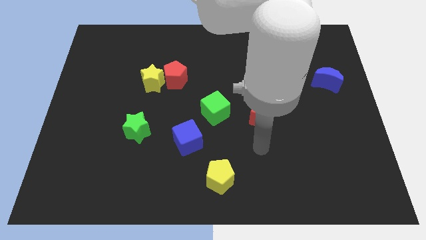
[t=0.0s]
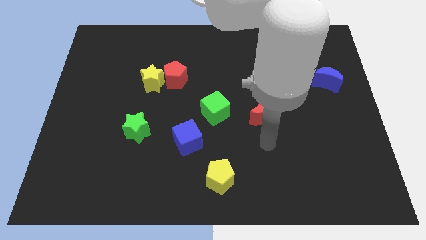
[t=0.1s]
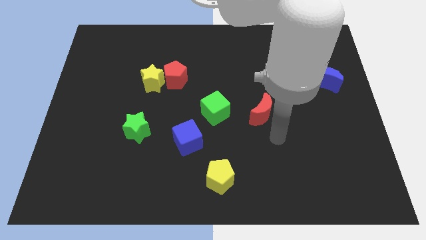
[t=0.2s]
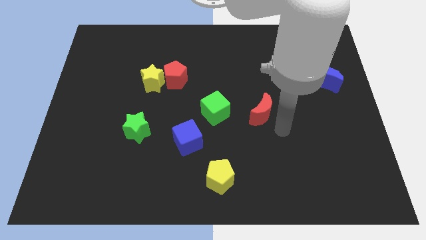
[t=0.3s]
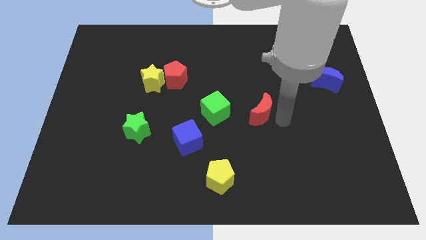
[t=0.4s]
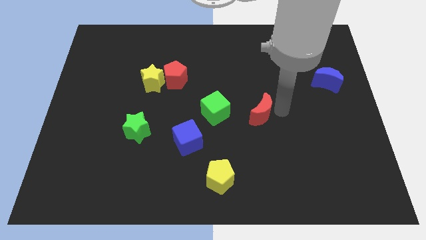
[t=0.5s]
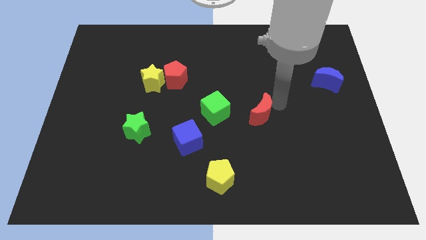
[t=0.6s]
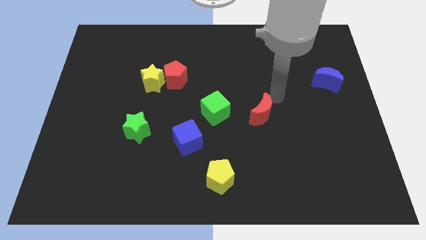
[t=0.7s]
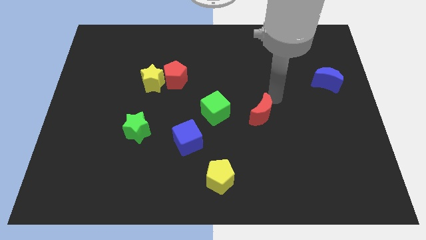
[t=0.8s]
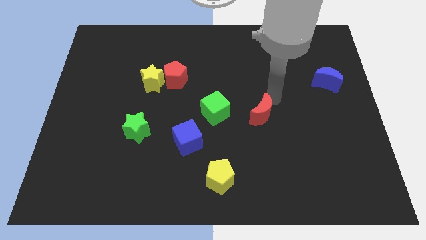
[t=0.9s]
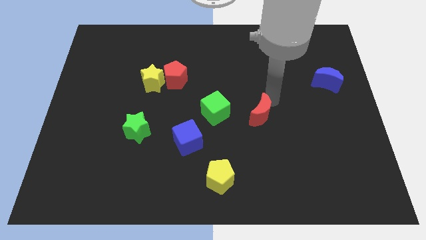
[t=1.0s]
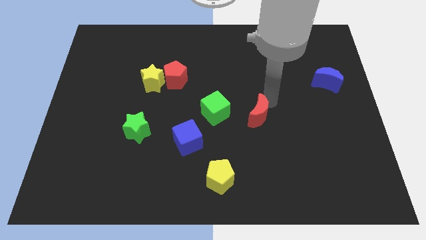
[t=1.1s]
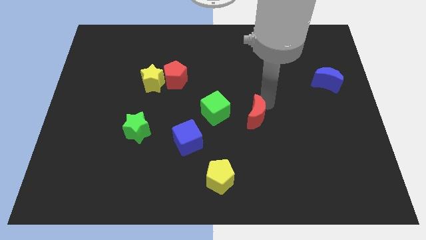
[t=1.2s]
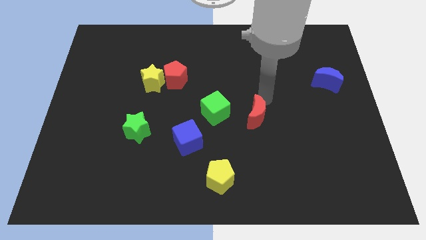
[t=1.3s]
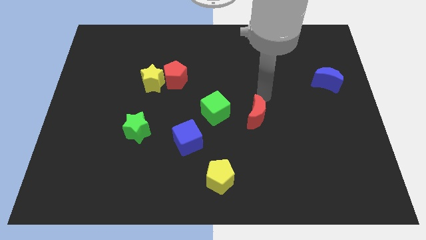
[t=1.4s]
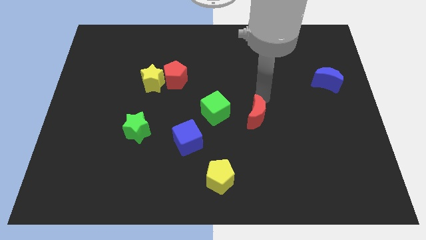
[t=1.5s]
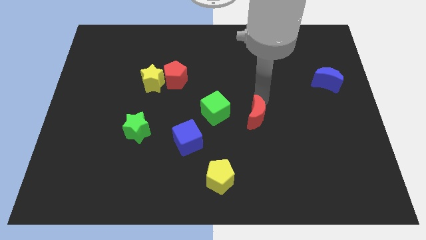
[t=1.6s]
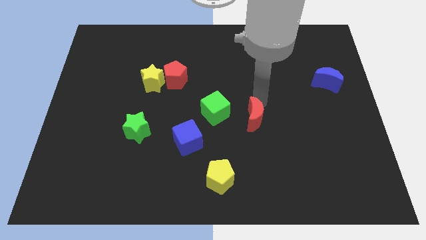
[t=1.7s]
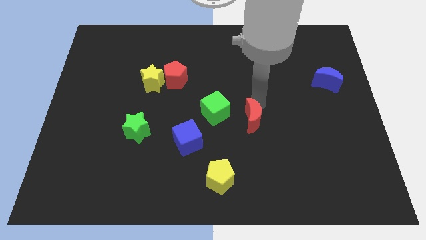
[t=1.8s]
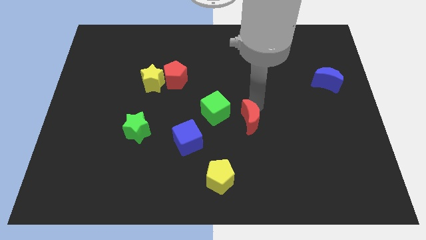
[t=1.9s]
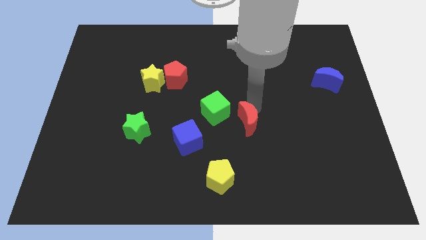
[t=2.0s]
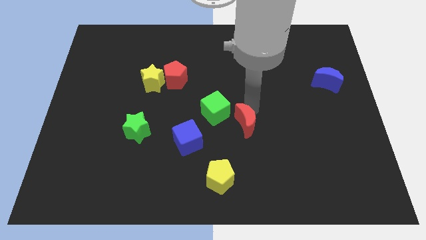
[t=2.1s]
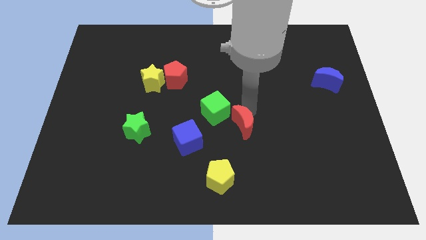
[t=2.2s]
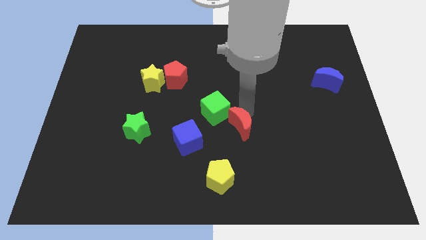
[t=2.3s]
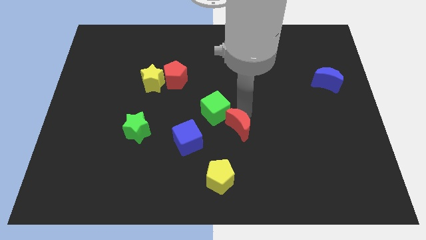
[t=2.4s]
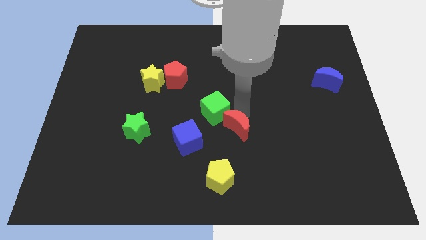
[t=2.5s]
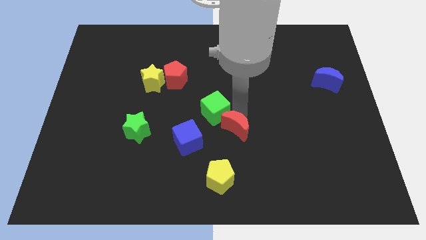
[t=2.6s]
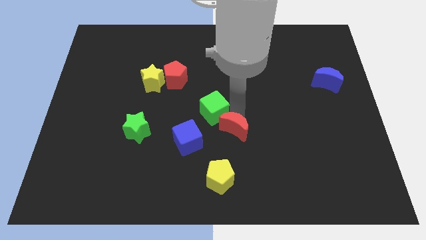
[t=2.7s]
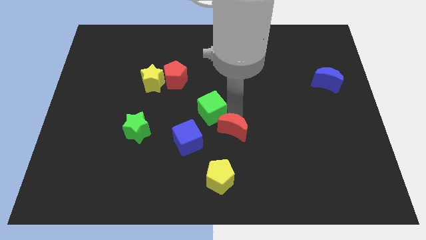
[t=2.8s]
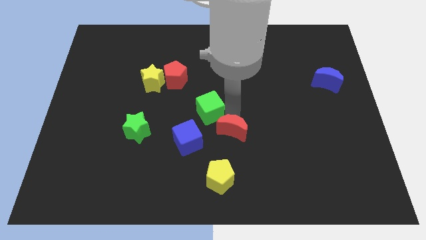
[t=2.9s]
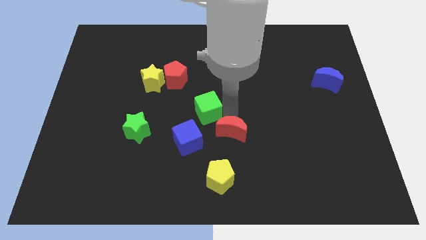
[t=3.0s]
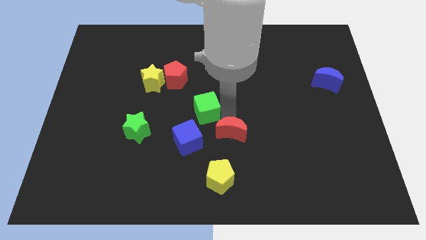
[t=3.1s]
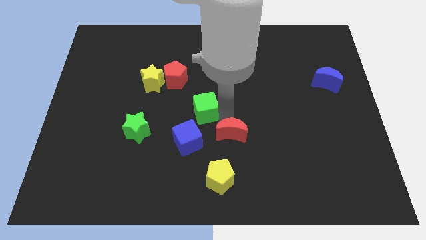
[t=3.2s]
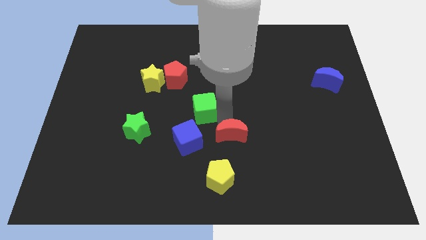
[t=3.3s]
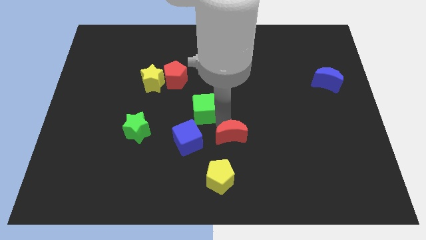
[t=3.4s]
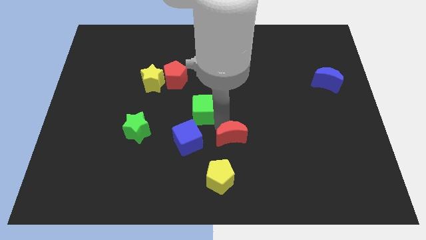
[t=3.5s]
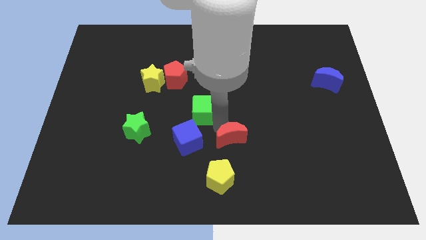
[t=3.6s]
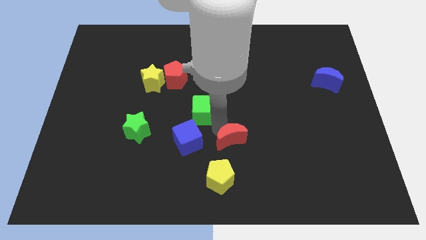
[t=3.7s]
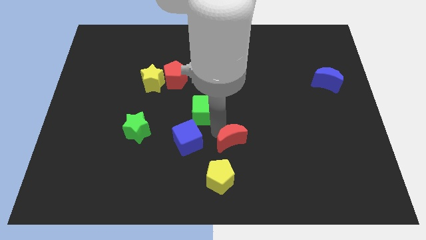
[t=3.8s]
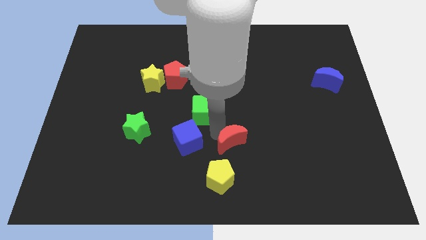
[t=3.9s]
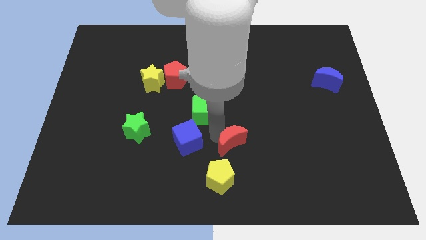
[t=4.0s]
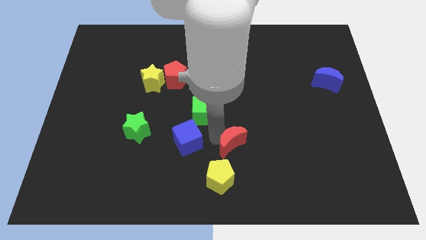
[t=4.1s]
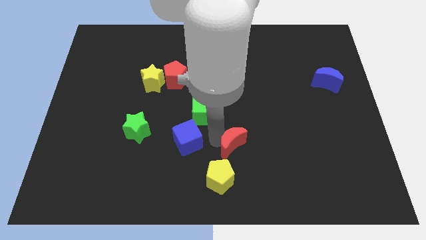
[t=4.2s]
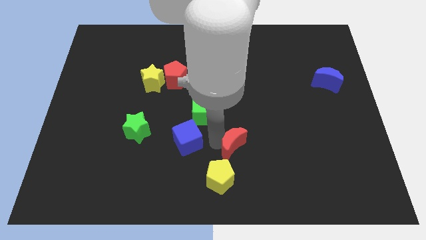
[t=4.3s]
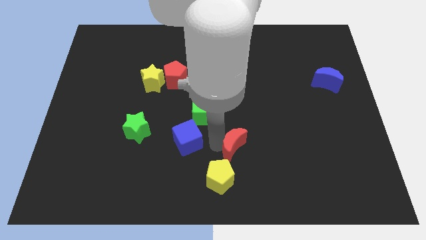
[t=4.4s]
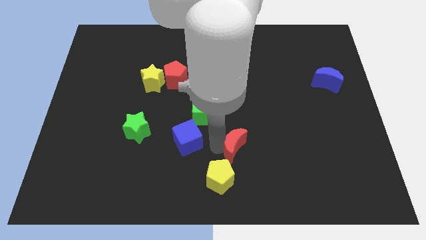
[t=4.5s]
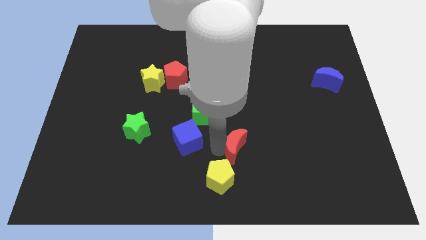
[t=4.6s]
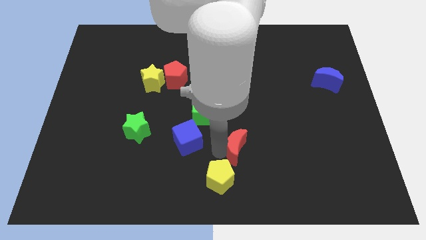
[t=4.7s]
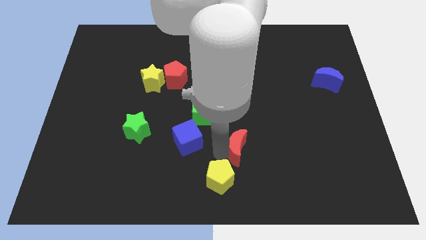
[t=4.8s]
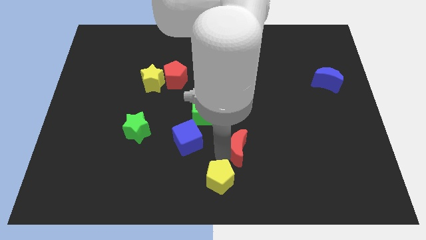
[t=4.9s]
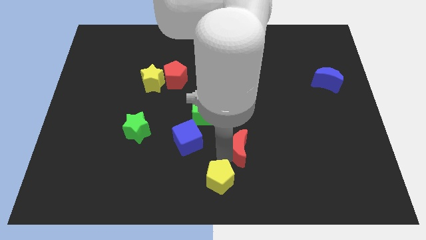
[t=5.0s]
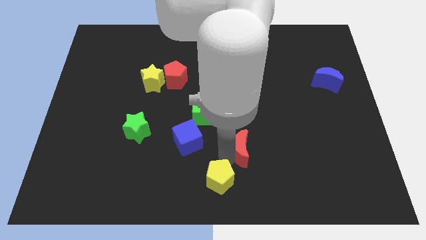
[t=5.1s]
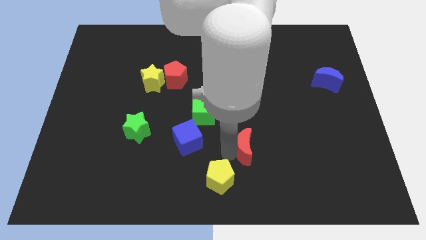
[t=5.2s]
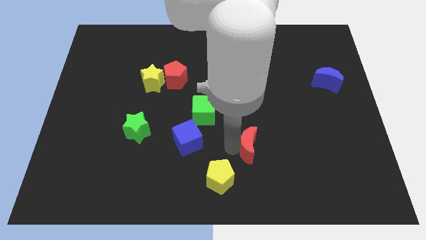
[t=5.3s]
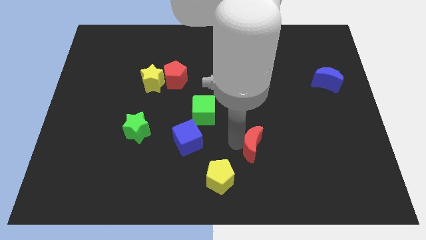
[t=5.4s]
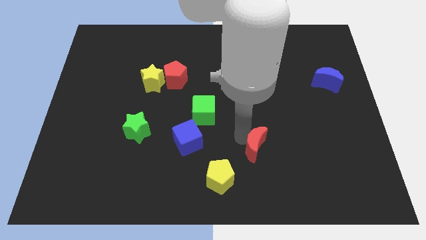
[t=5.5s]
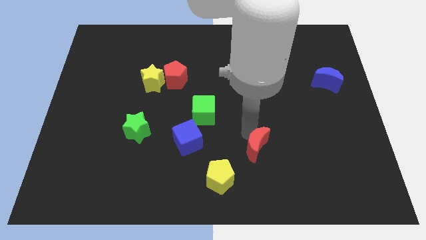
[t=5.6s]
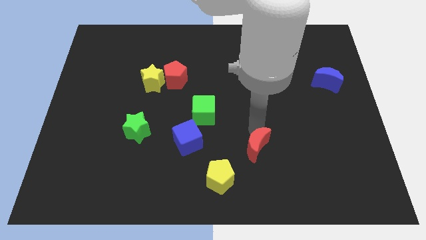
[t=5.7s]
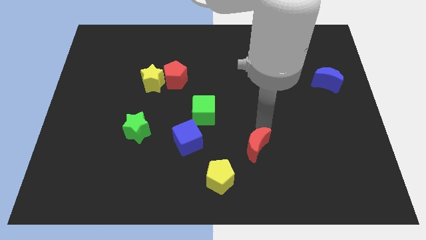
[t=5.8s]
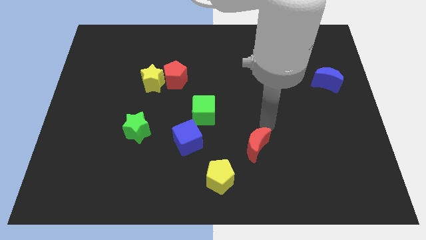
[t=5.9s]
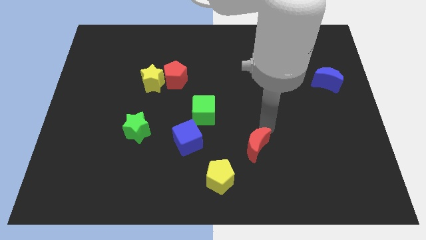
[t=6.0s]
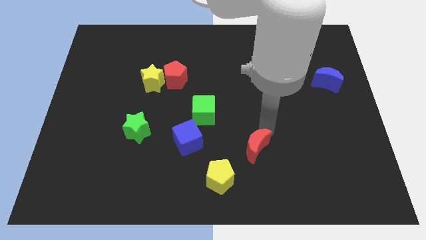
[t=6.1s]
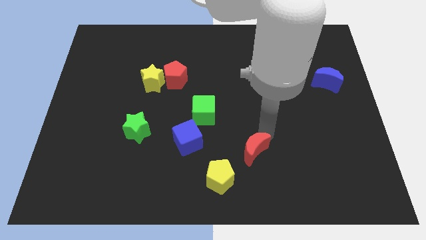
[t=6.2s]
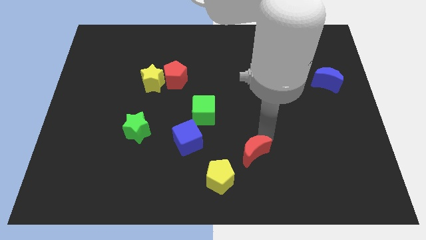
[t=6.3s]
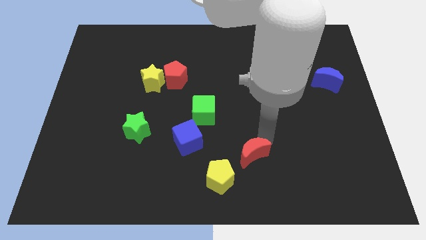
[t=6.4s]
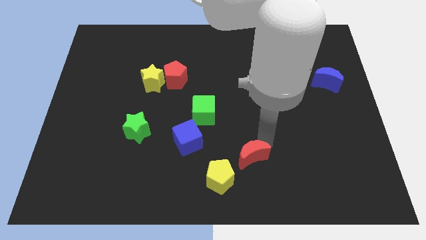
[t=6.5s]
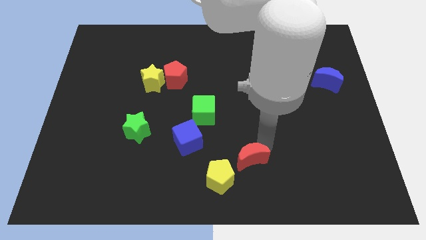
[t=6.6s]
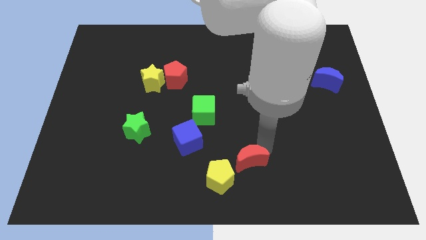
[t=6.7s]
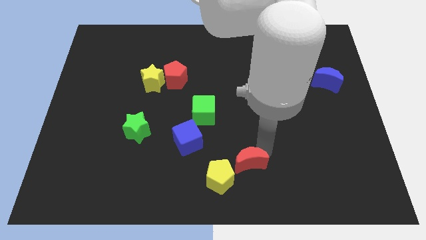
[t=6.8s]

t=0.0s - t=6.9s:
slide the red moon to the bottom side
